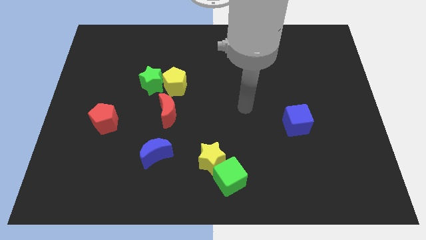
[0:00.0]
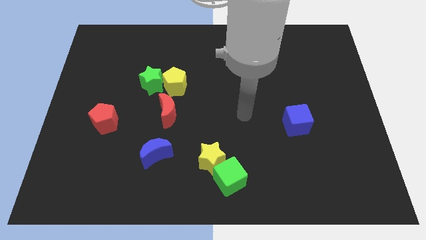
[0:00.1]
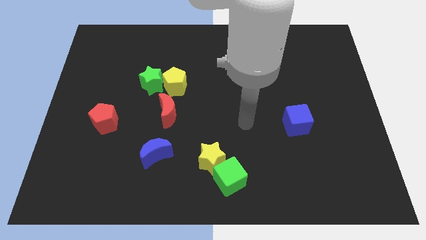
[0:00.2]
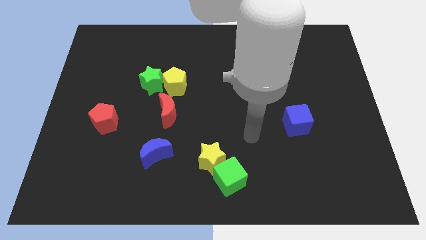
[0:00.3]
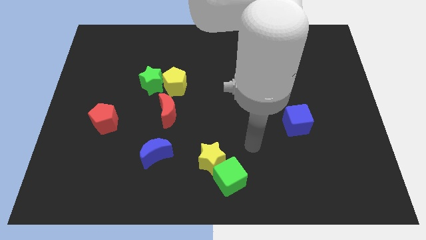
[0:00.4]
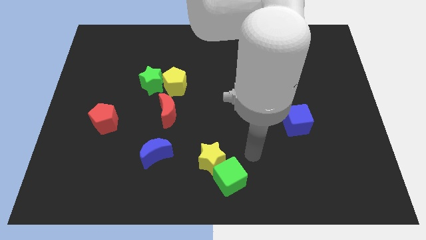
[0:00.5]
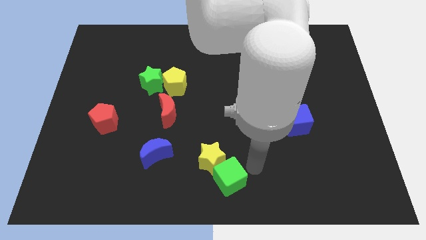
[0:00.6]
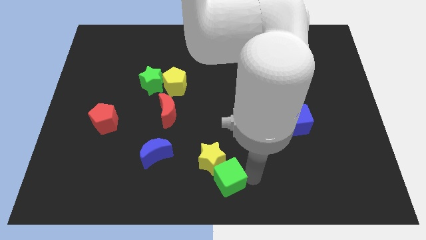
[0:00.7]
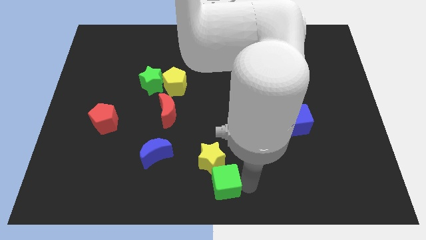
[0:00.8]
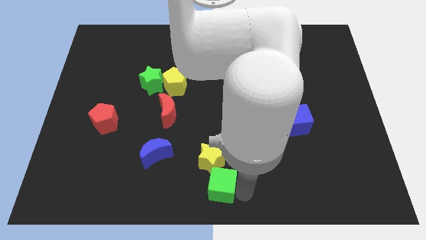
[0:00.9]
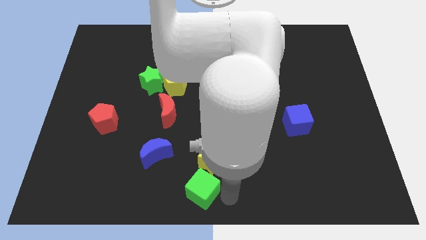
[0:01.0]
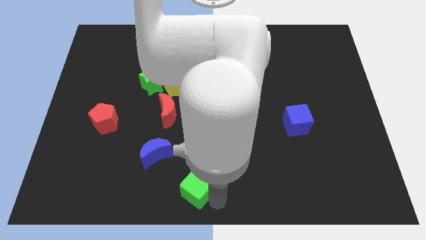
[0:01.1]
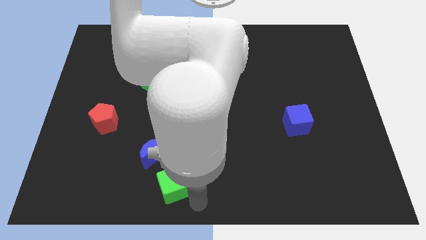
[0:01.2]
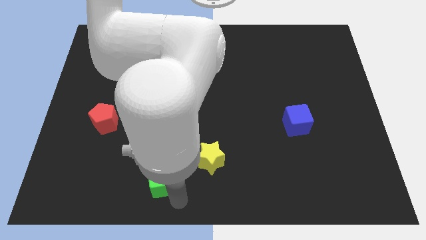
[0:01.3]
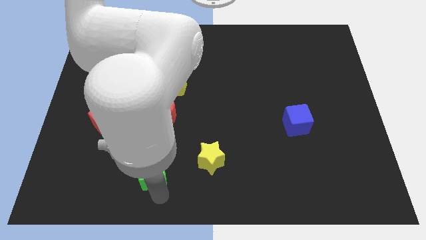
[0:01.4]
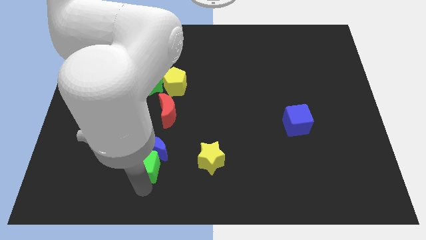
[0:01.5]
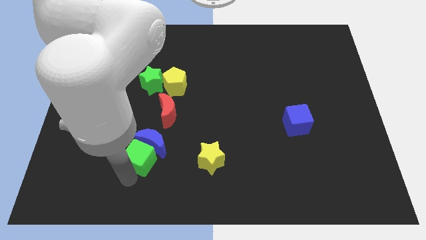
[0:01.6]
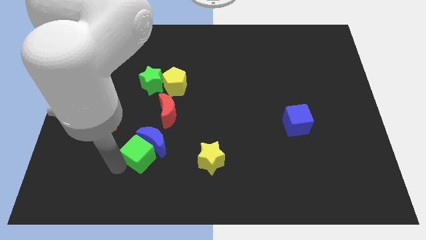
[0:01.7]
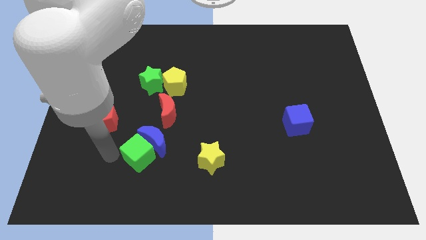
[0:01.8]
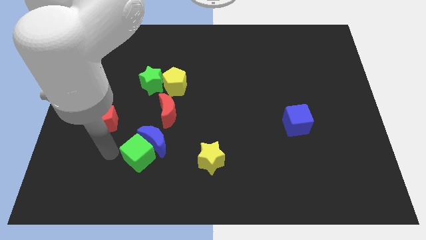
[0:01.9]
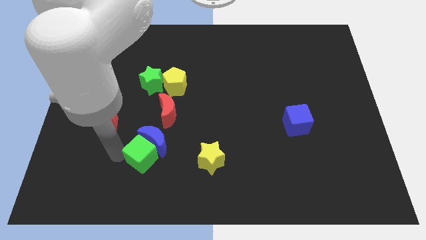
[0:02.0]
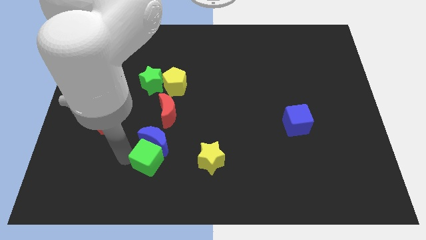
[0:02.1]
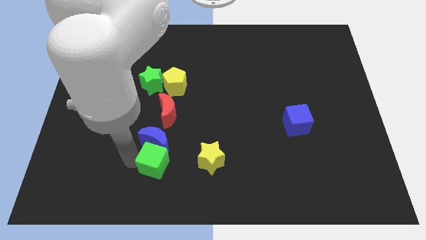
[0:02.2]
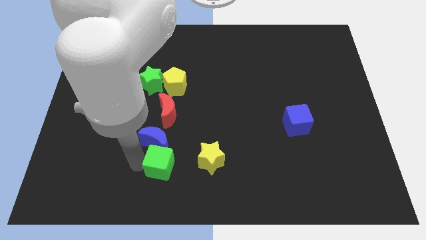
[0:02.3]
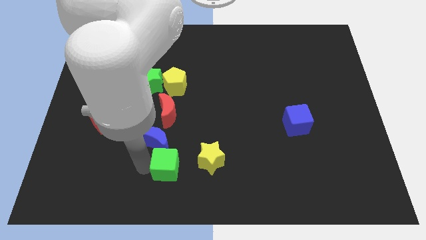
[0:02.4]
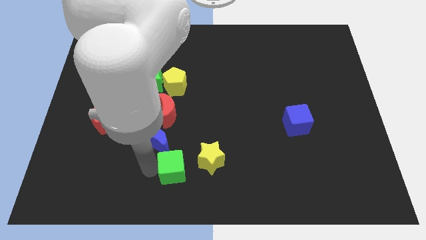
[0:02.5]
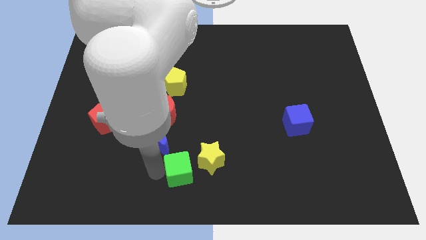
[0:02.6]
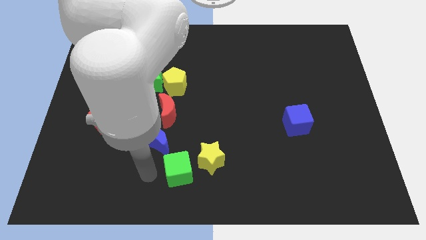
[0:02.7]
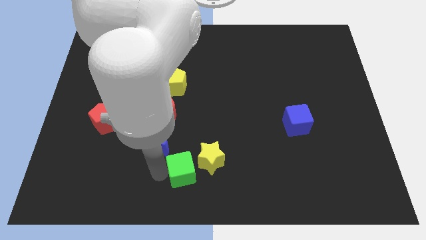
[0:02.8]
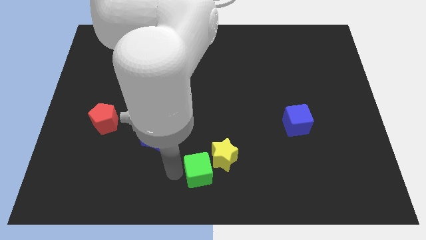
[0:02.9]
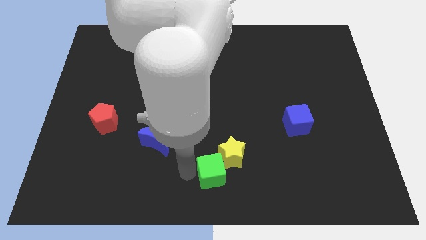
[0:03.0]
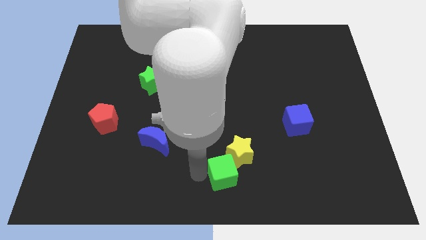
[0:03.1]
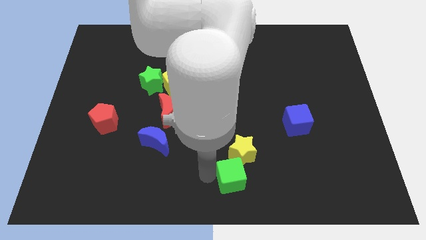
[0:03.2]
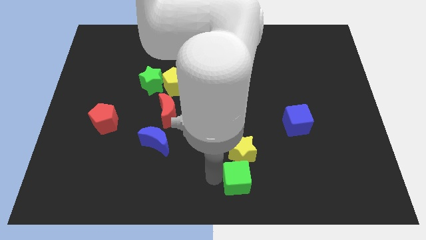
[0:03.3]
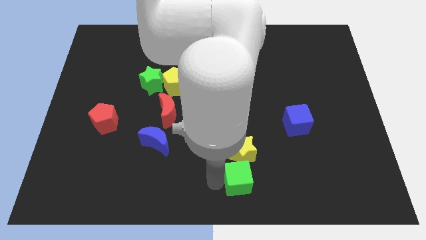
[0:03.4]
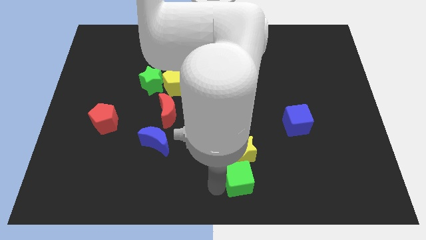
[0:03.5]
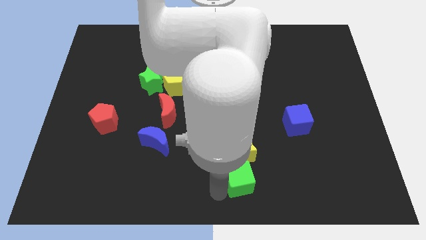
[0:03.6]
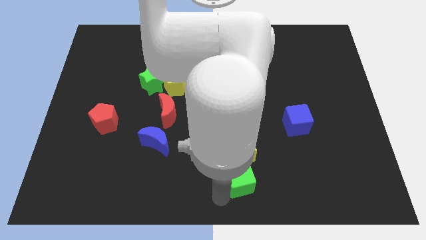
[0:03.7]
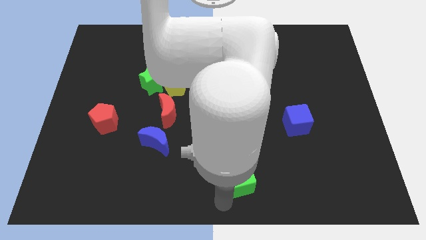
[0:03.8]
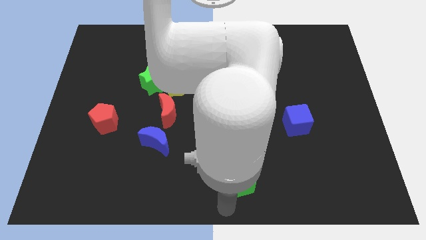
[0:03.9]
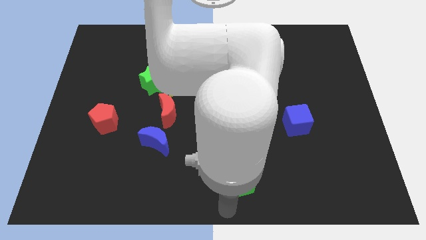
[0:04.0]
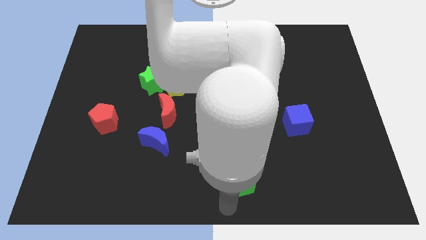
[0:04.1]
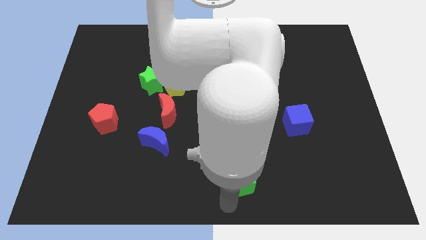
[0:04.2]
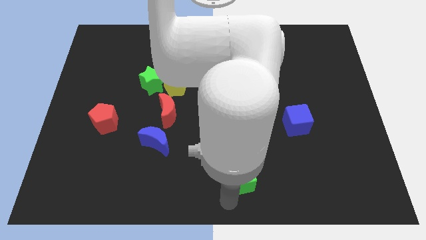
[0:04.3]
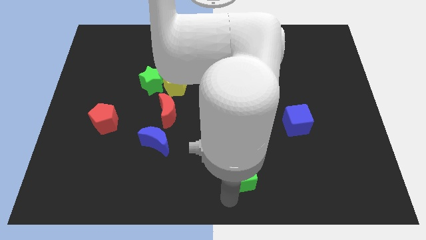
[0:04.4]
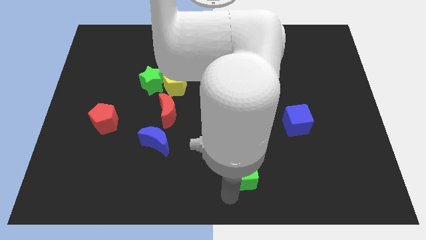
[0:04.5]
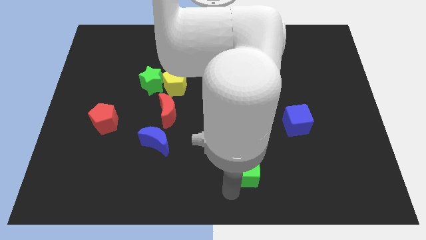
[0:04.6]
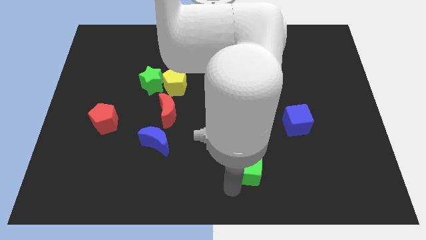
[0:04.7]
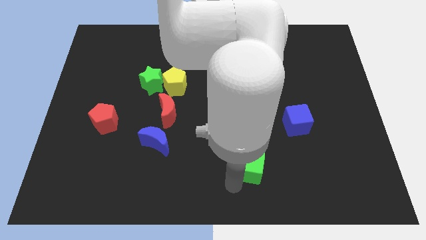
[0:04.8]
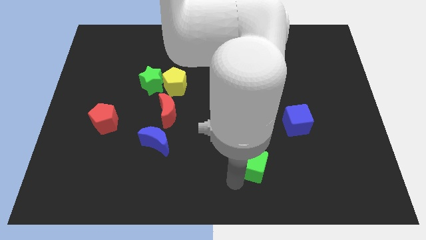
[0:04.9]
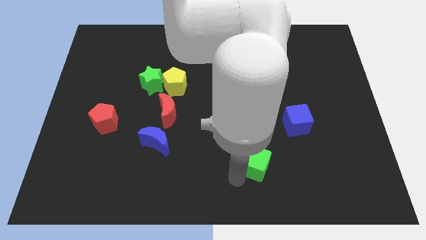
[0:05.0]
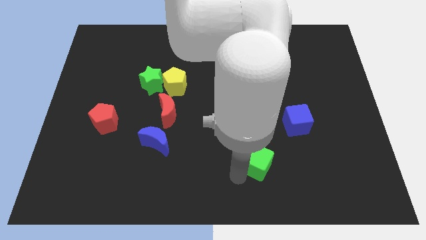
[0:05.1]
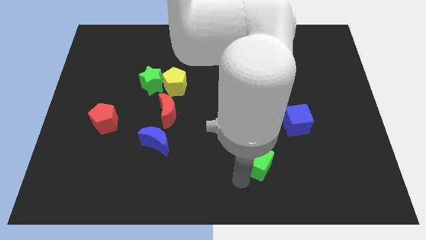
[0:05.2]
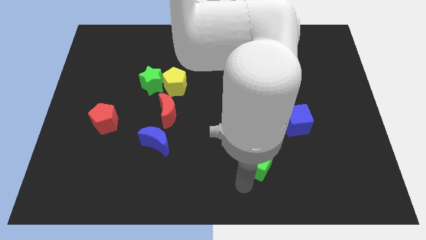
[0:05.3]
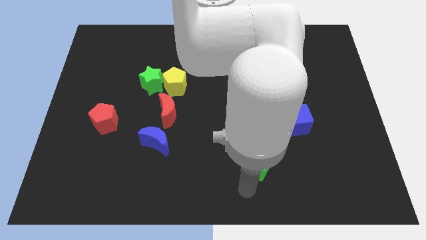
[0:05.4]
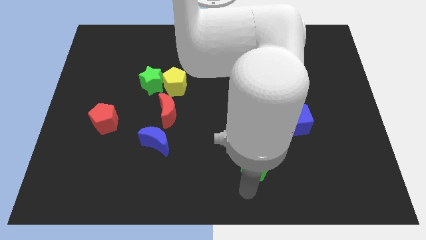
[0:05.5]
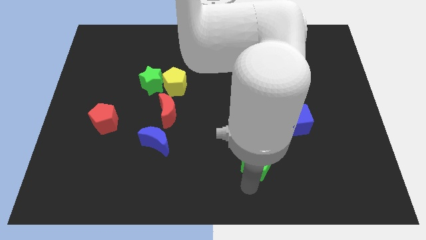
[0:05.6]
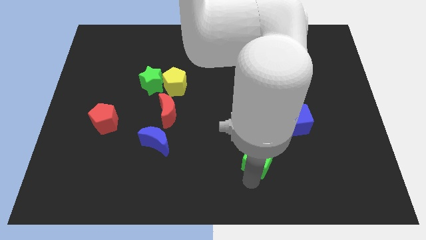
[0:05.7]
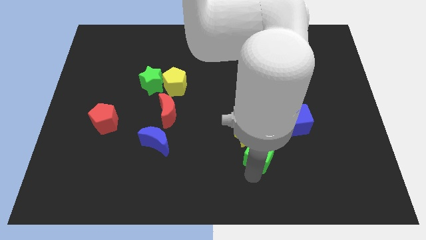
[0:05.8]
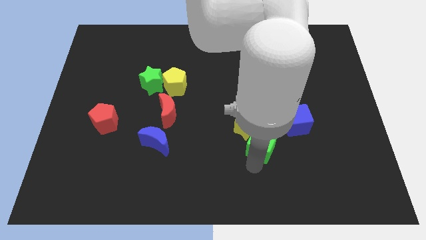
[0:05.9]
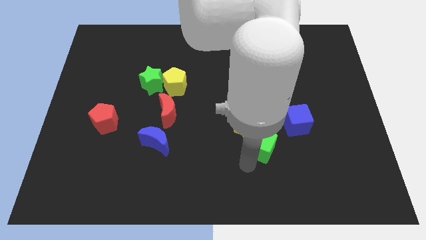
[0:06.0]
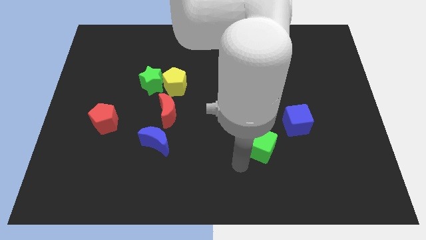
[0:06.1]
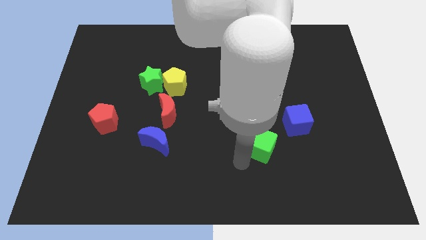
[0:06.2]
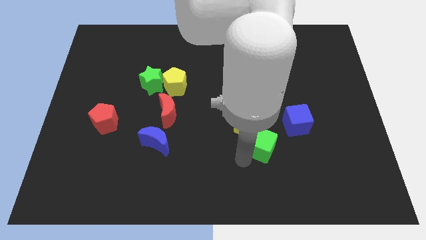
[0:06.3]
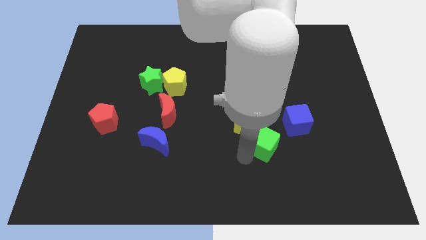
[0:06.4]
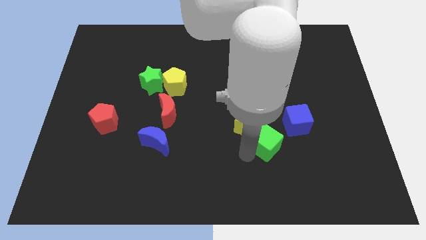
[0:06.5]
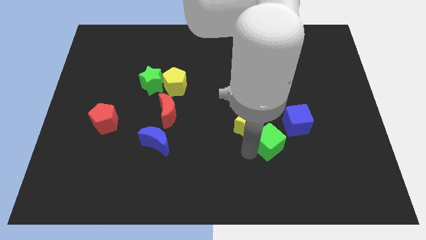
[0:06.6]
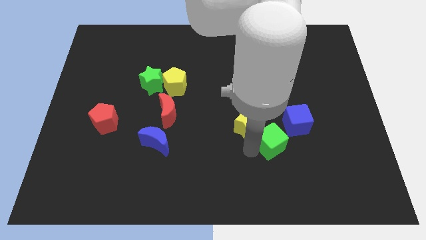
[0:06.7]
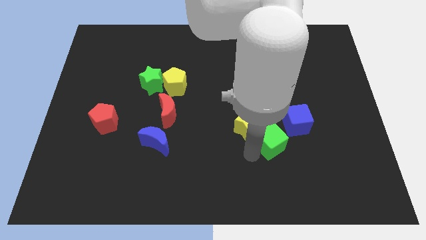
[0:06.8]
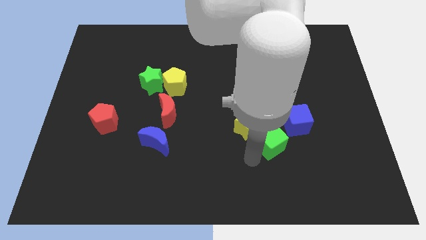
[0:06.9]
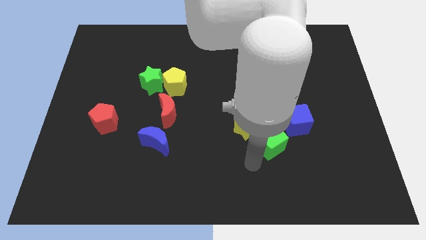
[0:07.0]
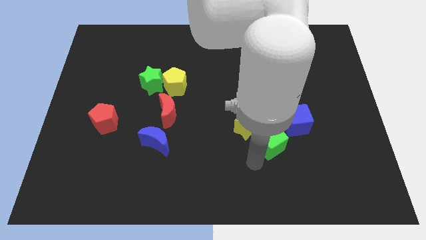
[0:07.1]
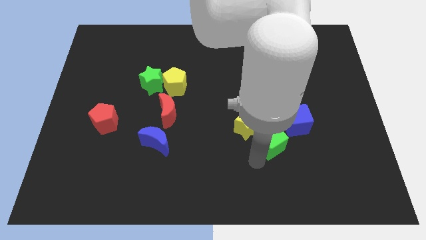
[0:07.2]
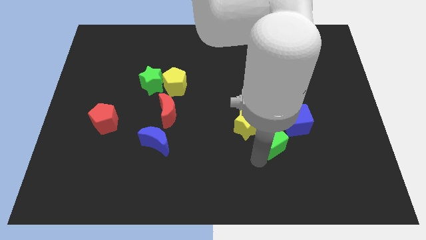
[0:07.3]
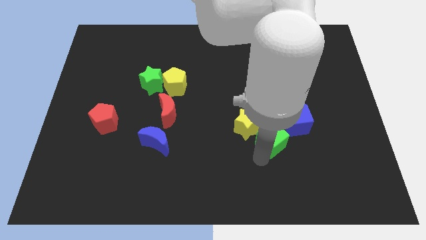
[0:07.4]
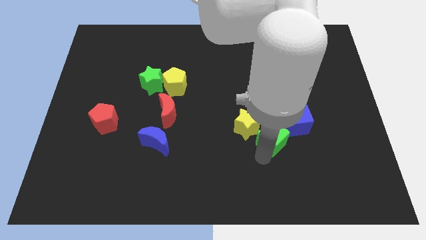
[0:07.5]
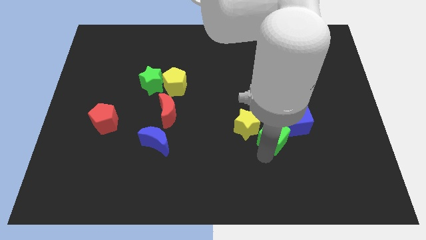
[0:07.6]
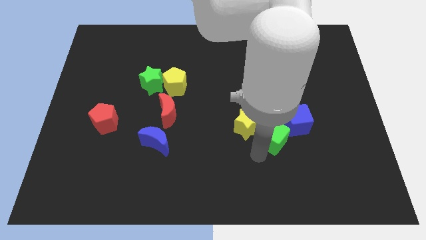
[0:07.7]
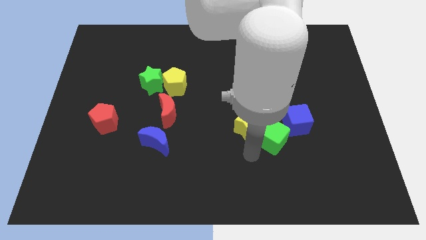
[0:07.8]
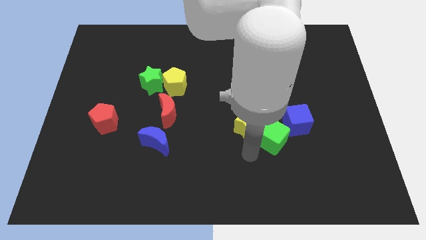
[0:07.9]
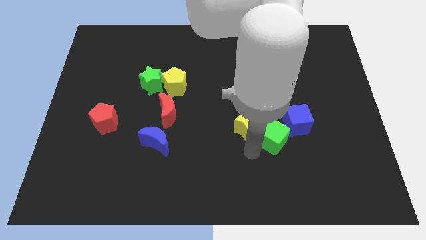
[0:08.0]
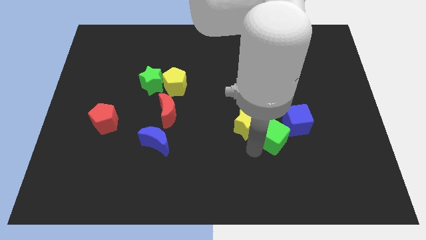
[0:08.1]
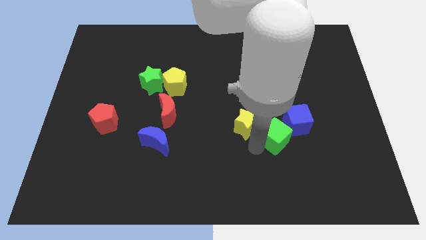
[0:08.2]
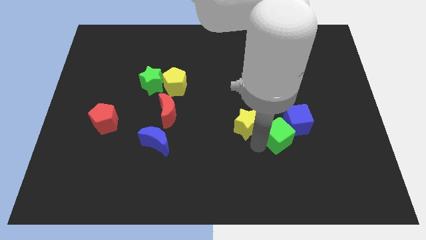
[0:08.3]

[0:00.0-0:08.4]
put the green cube to the blue cube
